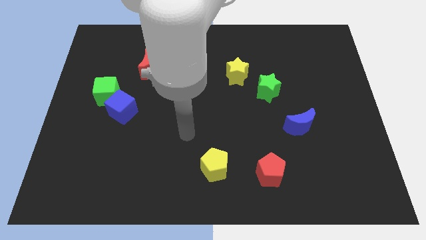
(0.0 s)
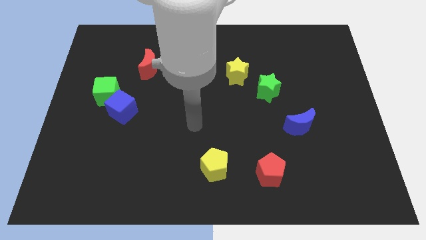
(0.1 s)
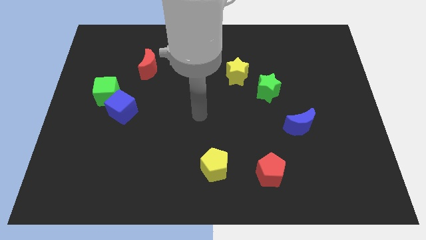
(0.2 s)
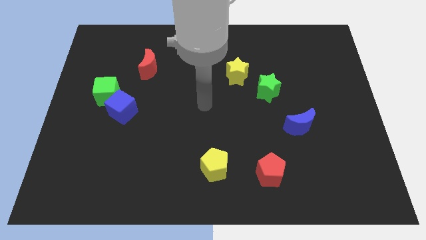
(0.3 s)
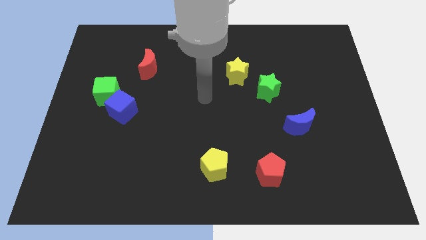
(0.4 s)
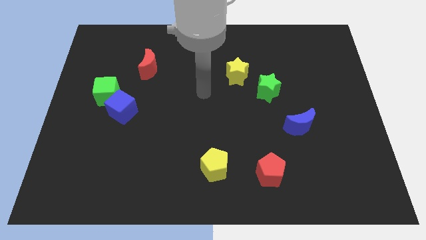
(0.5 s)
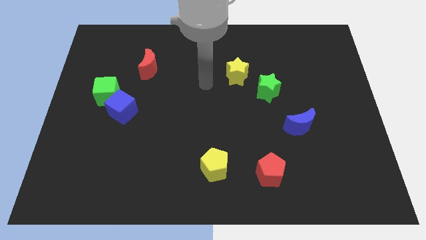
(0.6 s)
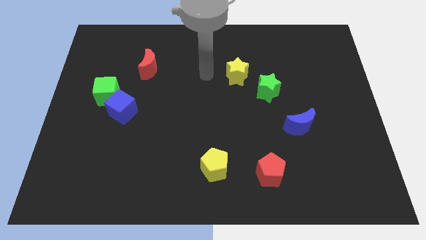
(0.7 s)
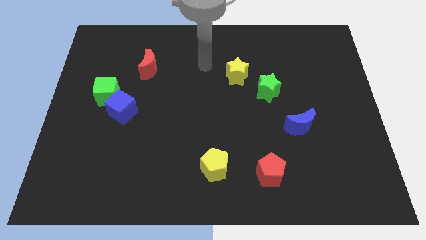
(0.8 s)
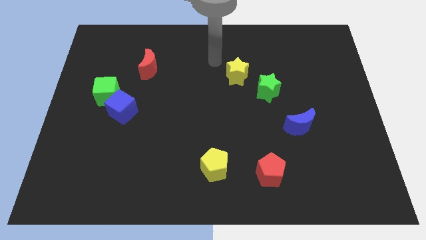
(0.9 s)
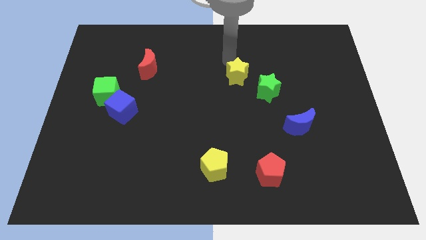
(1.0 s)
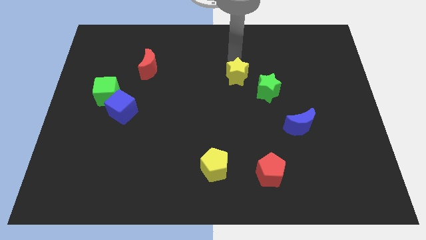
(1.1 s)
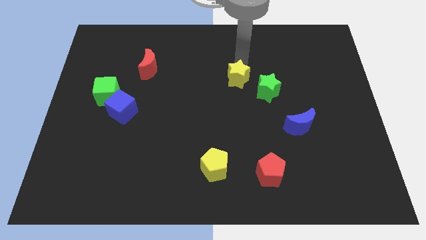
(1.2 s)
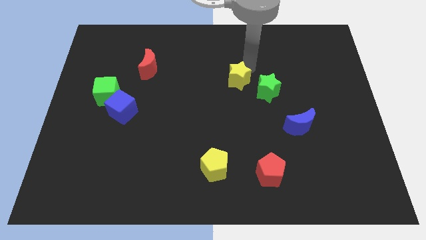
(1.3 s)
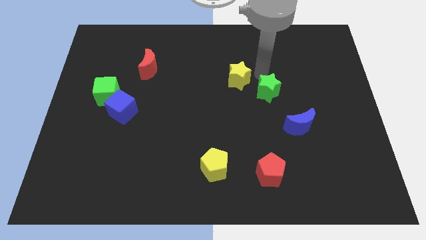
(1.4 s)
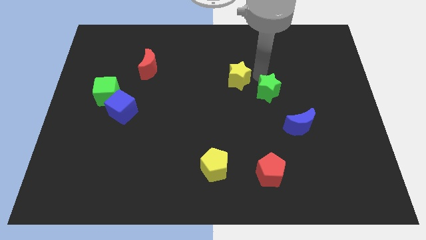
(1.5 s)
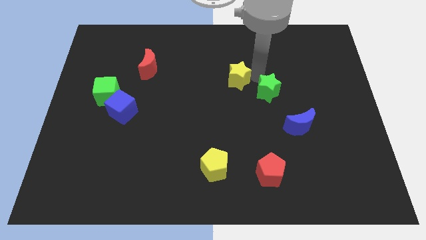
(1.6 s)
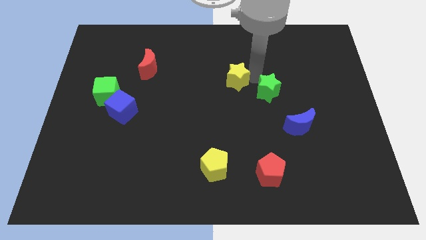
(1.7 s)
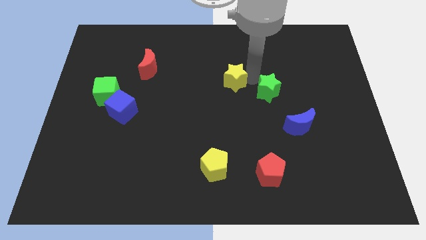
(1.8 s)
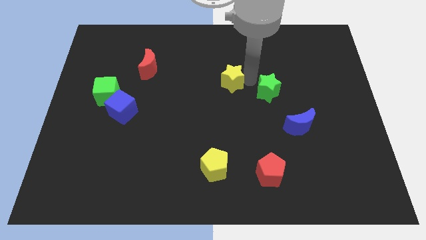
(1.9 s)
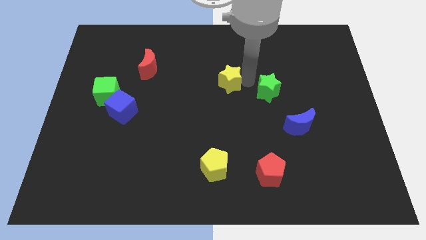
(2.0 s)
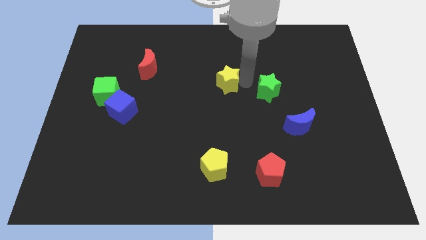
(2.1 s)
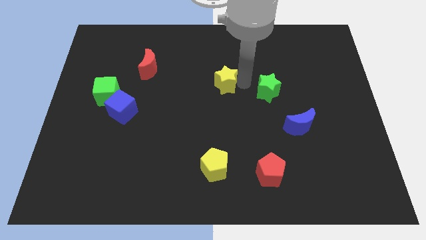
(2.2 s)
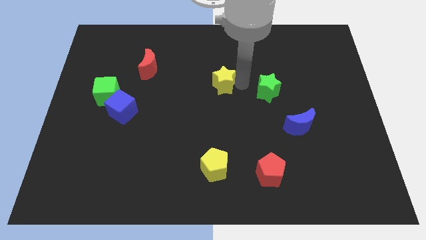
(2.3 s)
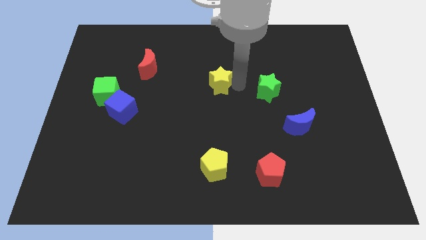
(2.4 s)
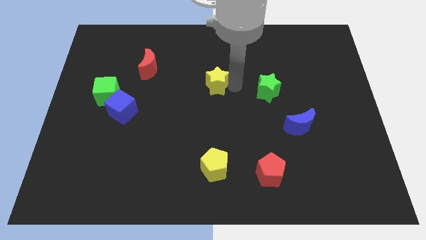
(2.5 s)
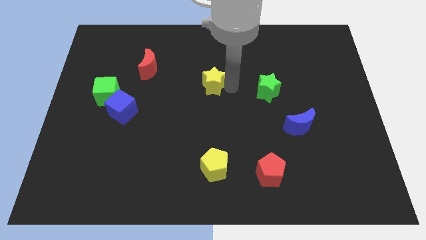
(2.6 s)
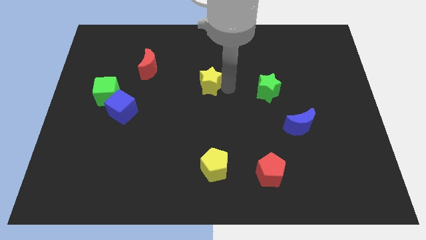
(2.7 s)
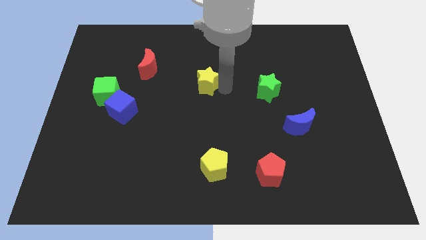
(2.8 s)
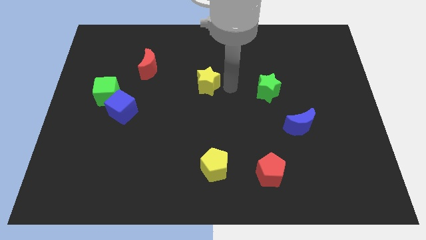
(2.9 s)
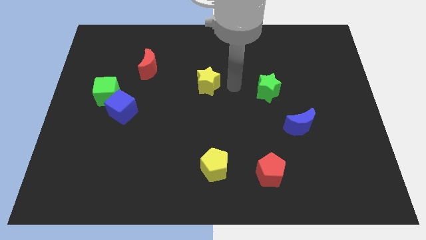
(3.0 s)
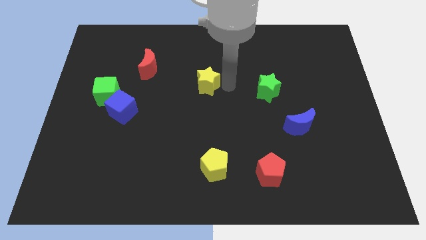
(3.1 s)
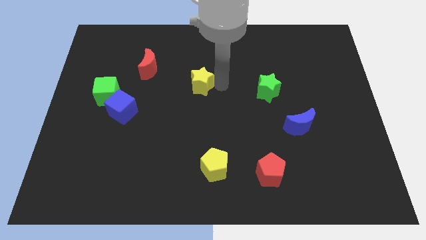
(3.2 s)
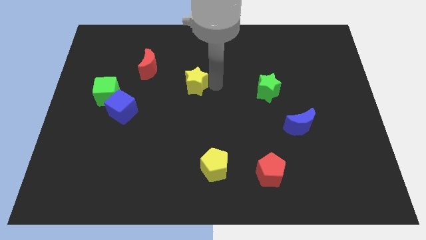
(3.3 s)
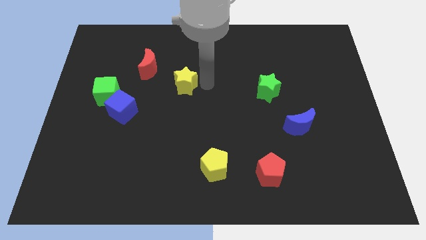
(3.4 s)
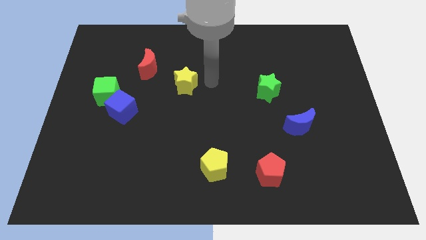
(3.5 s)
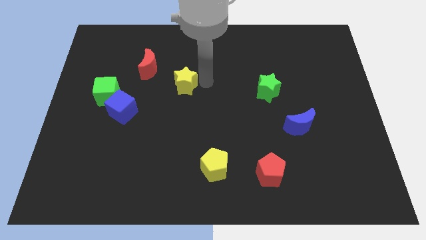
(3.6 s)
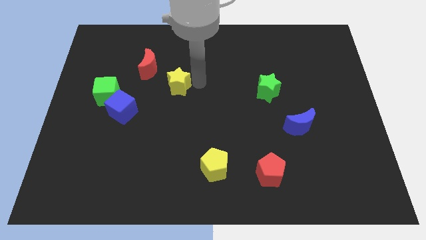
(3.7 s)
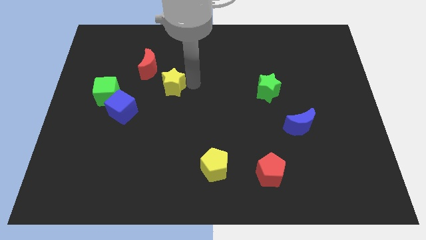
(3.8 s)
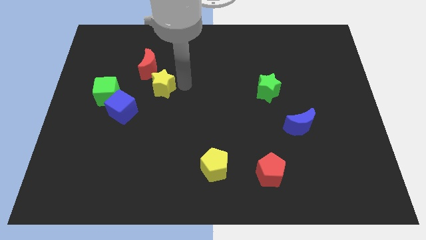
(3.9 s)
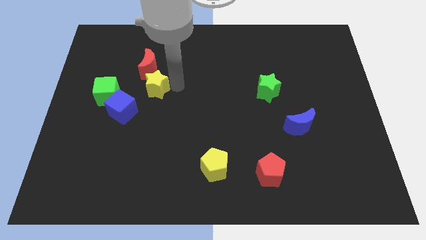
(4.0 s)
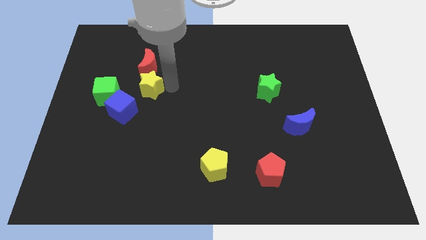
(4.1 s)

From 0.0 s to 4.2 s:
move the yellow star to the left

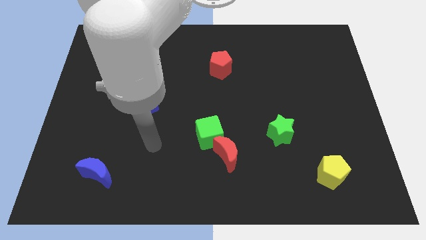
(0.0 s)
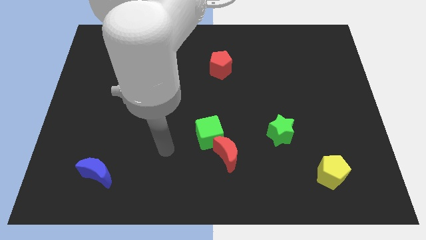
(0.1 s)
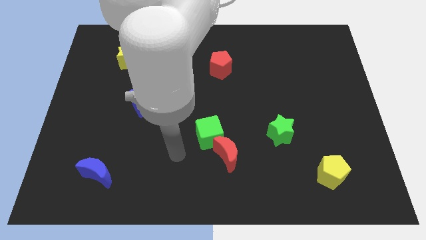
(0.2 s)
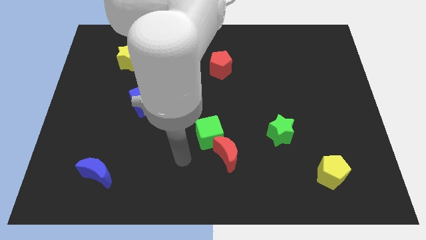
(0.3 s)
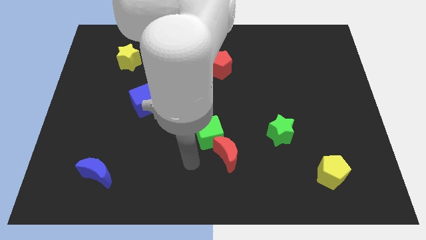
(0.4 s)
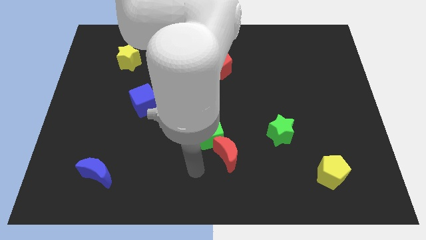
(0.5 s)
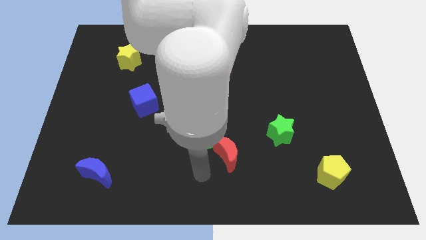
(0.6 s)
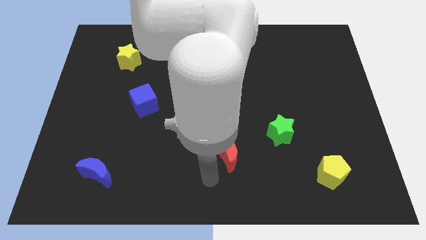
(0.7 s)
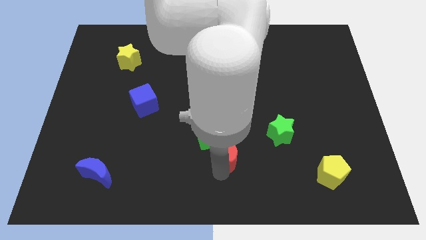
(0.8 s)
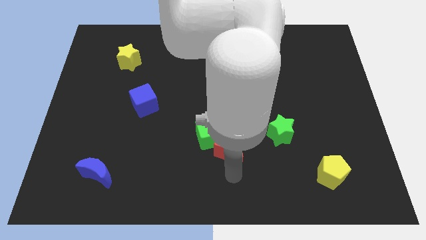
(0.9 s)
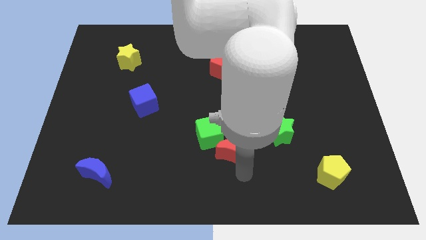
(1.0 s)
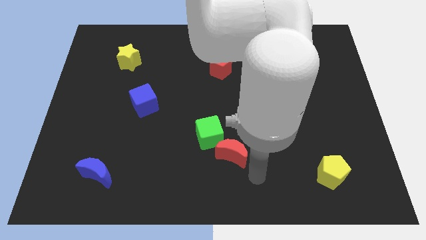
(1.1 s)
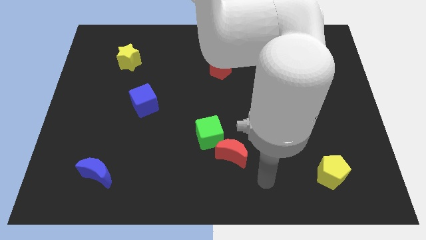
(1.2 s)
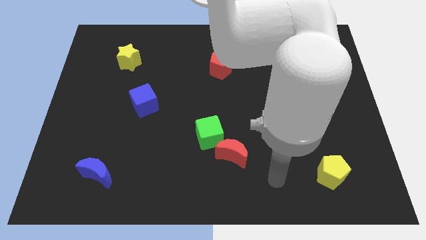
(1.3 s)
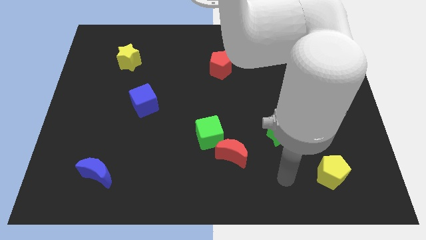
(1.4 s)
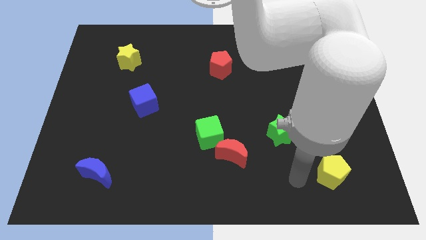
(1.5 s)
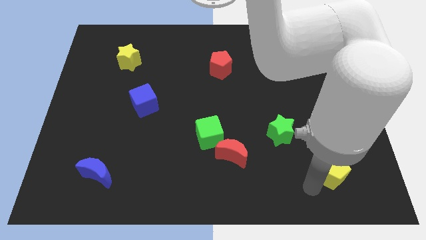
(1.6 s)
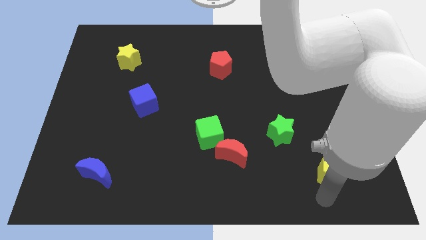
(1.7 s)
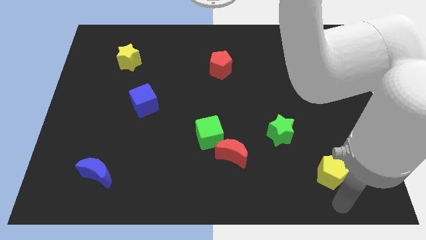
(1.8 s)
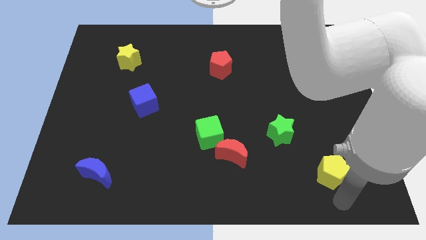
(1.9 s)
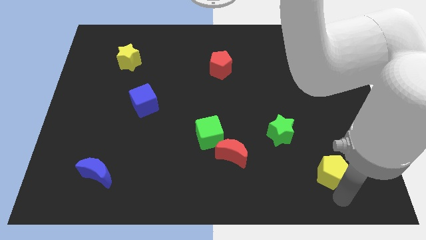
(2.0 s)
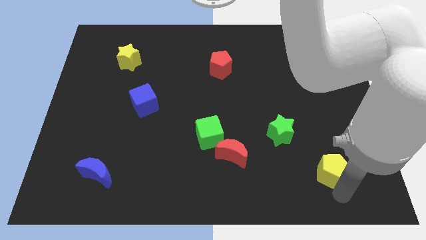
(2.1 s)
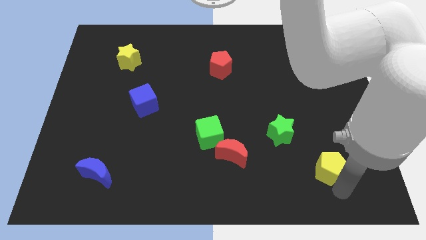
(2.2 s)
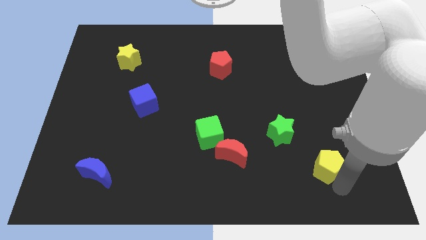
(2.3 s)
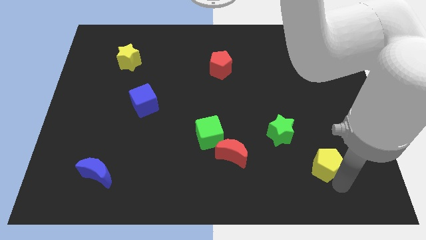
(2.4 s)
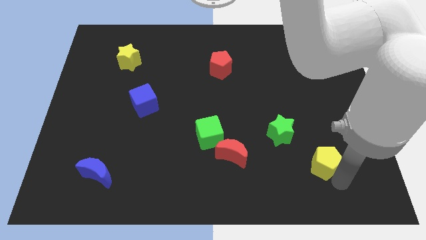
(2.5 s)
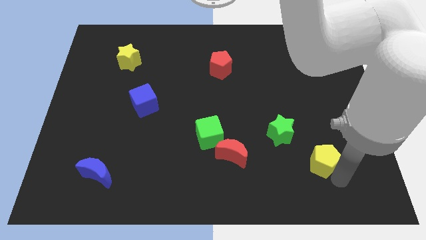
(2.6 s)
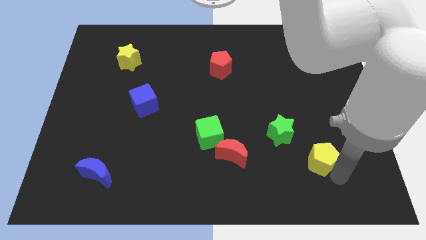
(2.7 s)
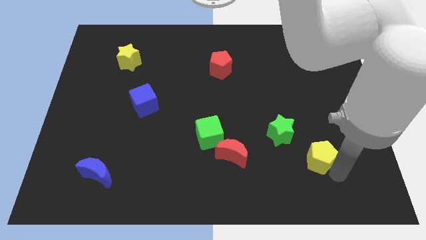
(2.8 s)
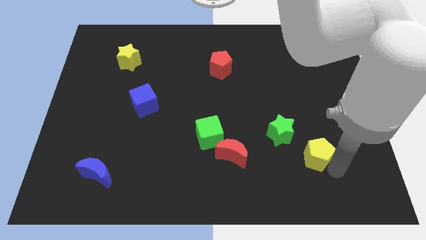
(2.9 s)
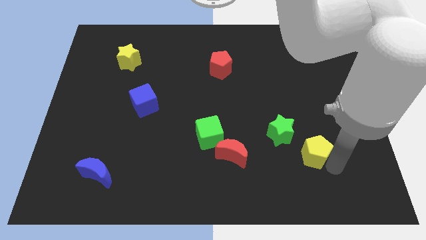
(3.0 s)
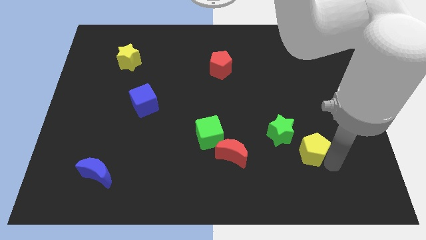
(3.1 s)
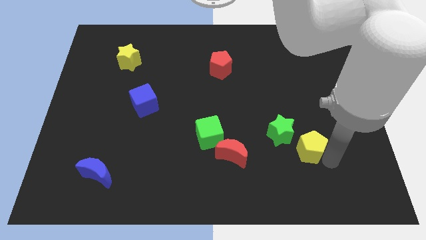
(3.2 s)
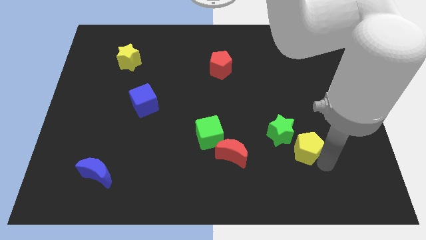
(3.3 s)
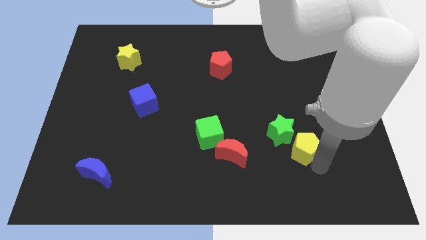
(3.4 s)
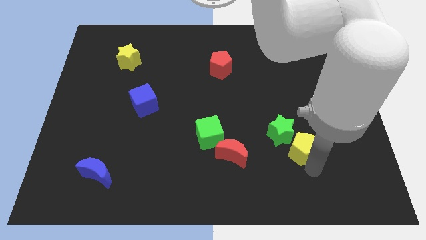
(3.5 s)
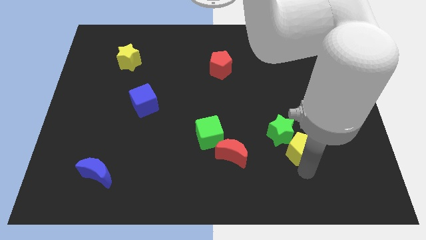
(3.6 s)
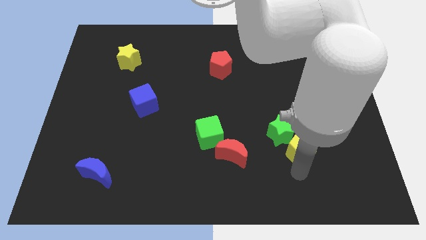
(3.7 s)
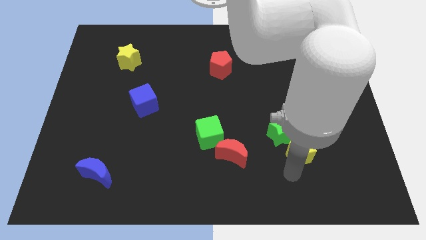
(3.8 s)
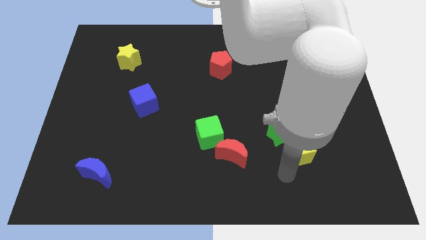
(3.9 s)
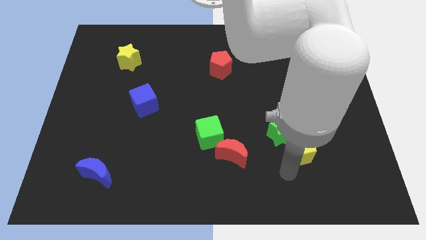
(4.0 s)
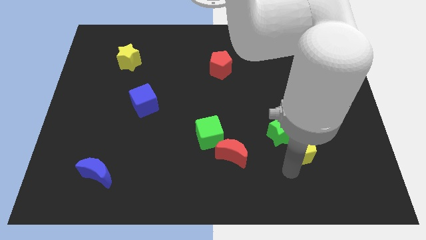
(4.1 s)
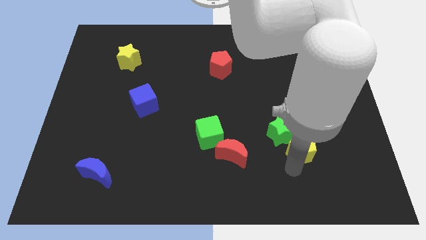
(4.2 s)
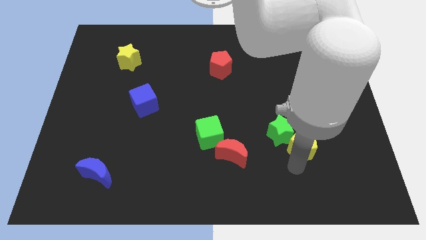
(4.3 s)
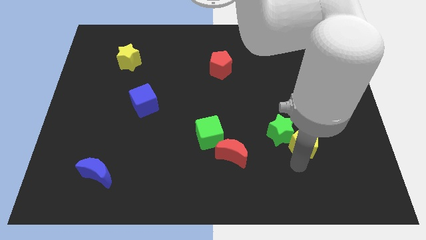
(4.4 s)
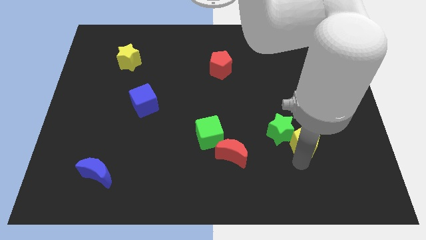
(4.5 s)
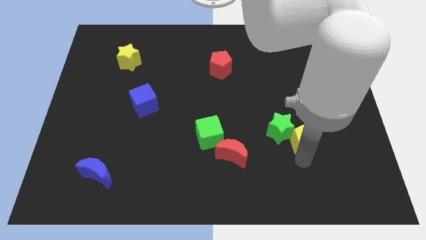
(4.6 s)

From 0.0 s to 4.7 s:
slightly push the yellow pentagon up
